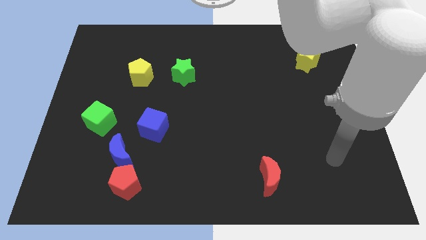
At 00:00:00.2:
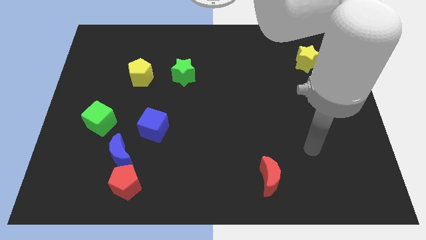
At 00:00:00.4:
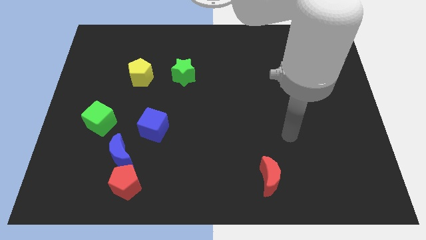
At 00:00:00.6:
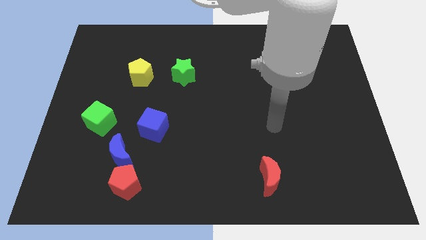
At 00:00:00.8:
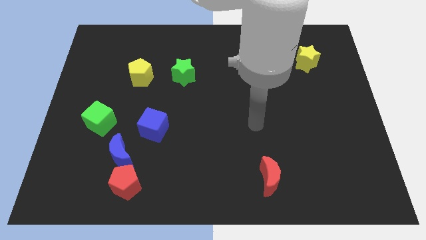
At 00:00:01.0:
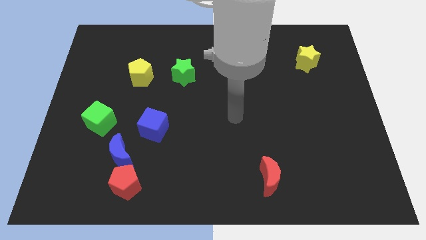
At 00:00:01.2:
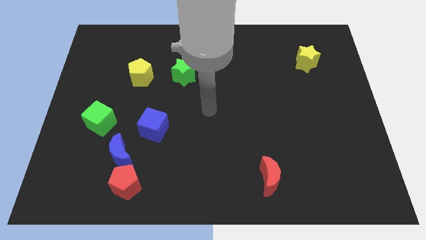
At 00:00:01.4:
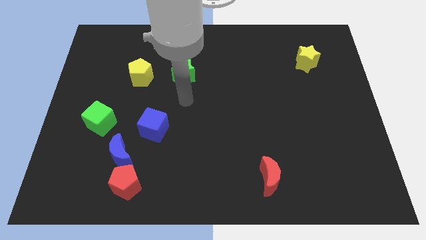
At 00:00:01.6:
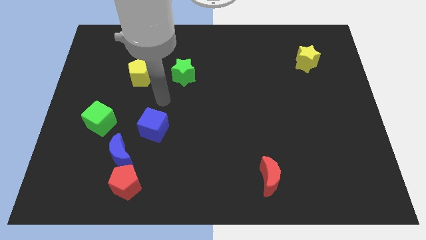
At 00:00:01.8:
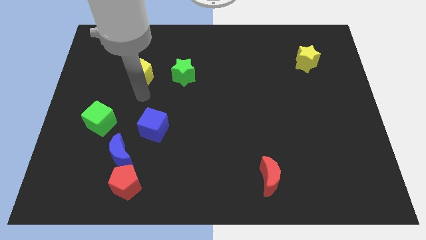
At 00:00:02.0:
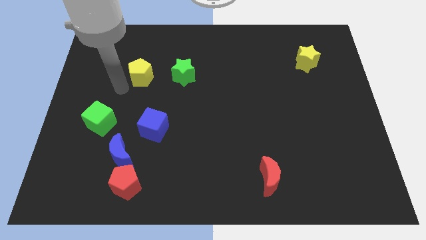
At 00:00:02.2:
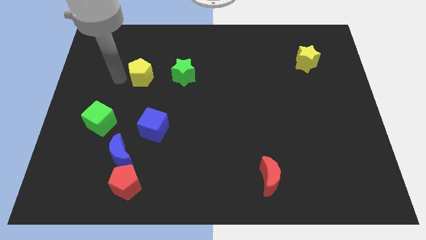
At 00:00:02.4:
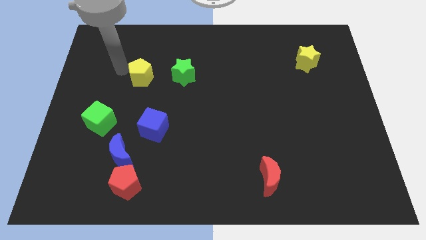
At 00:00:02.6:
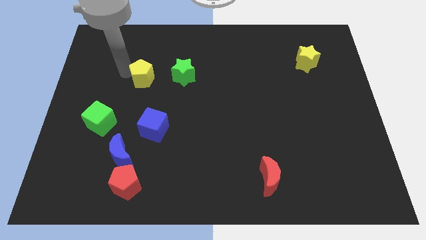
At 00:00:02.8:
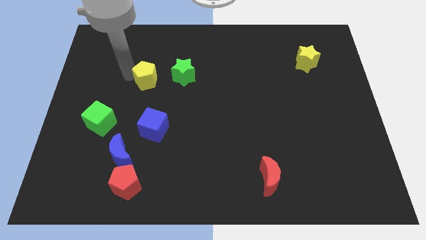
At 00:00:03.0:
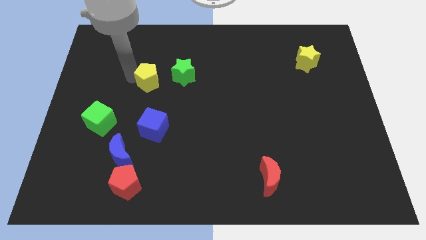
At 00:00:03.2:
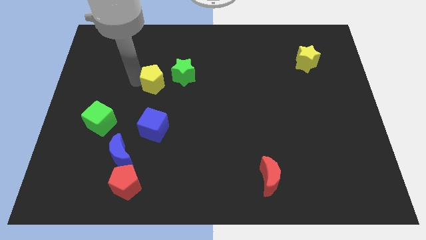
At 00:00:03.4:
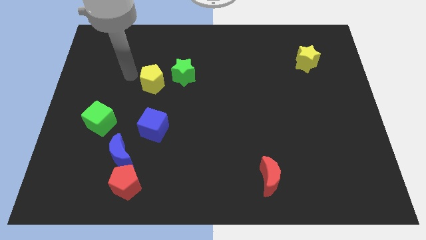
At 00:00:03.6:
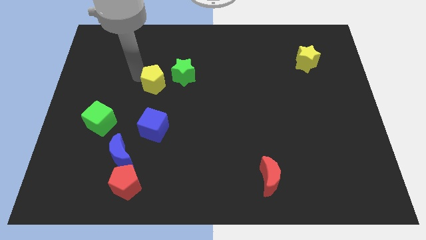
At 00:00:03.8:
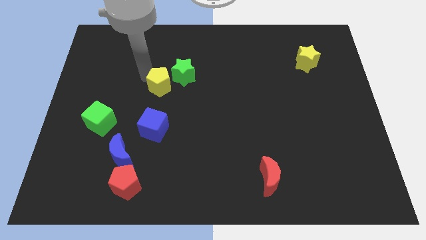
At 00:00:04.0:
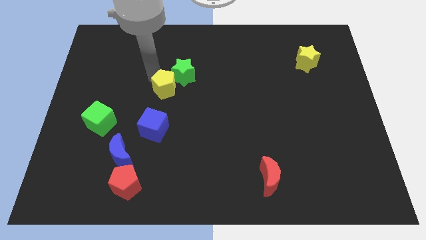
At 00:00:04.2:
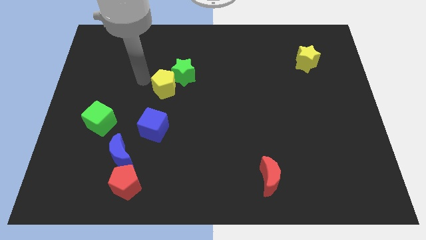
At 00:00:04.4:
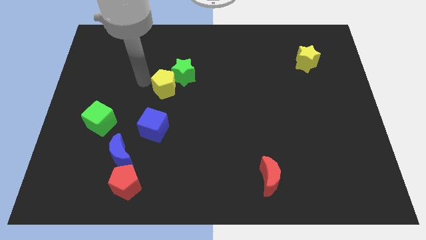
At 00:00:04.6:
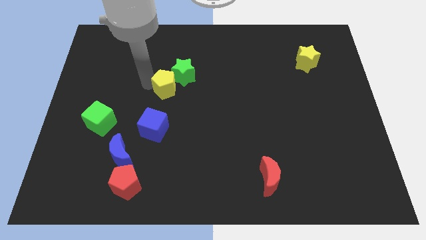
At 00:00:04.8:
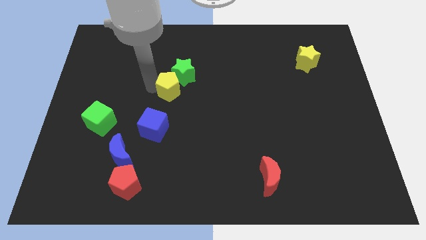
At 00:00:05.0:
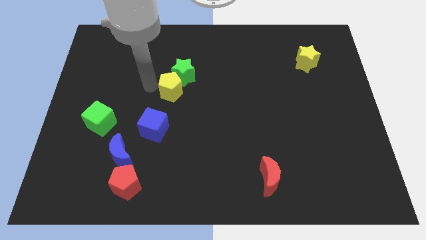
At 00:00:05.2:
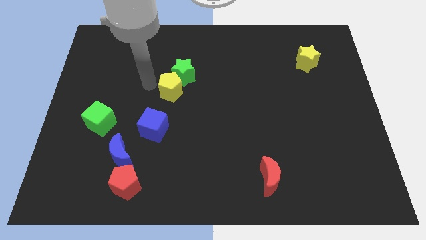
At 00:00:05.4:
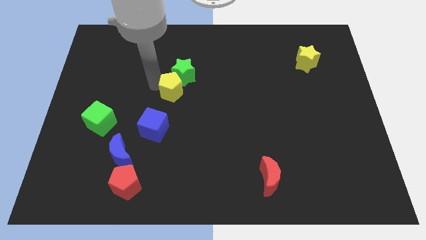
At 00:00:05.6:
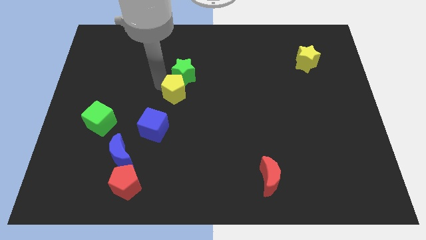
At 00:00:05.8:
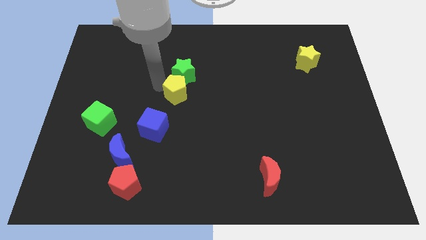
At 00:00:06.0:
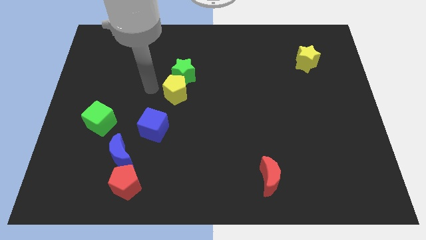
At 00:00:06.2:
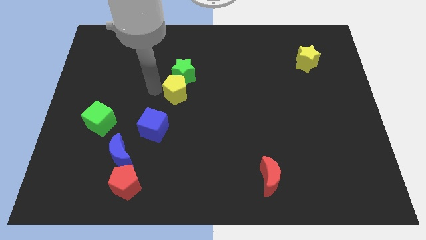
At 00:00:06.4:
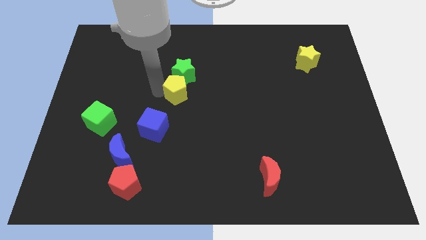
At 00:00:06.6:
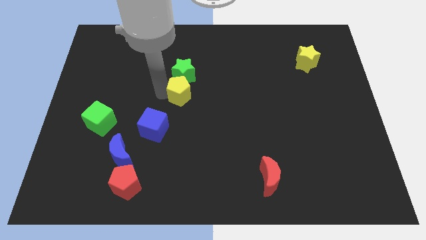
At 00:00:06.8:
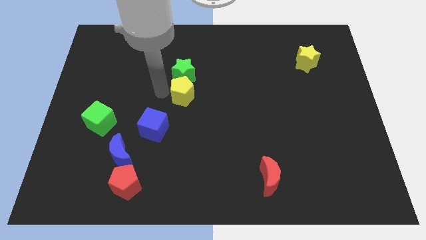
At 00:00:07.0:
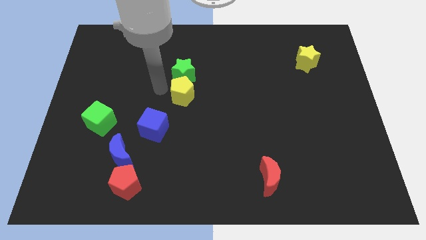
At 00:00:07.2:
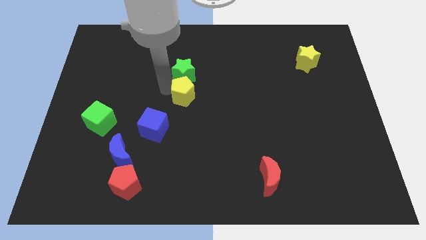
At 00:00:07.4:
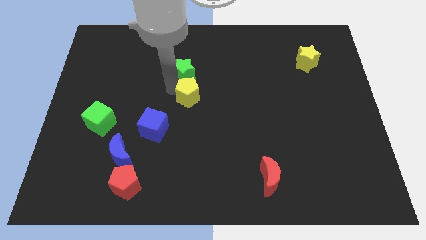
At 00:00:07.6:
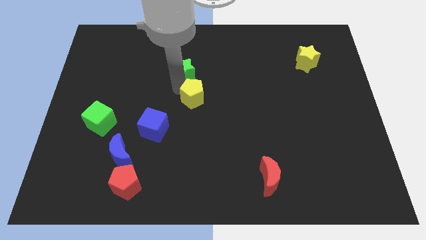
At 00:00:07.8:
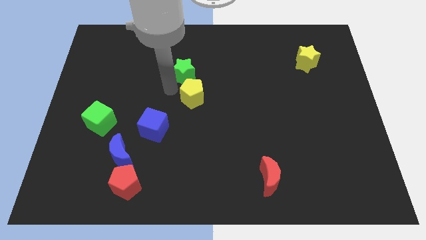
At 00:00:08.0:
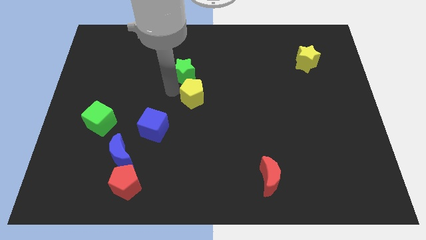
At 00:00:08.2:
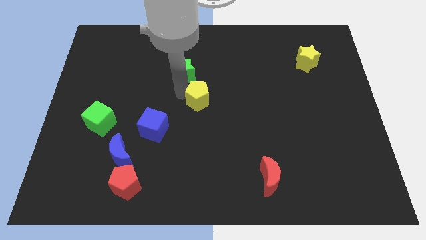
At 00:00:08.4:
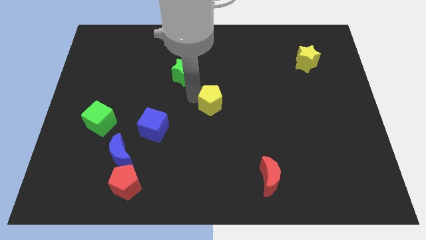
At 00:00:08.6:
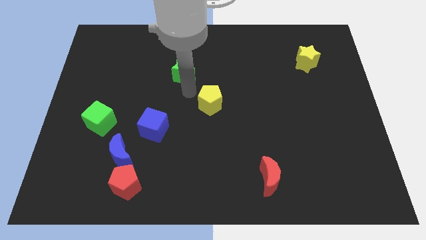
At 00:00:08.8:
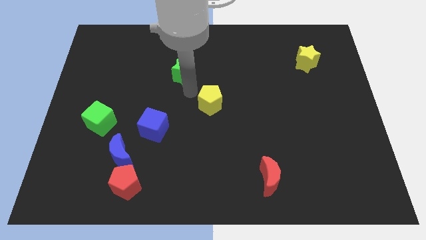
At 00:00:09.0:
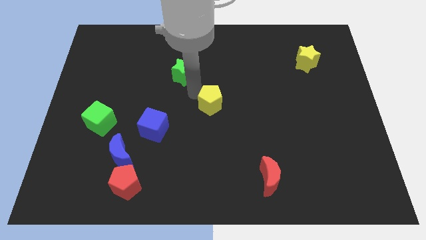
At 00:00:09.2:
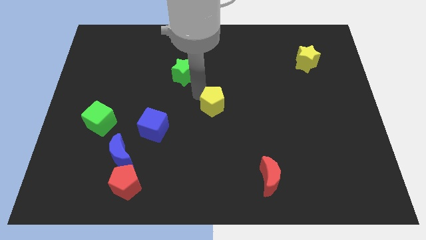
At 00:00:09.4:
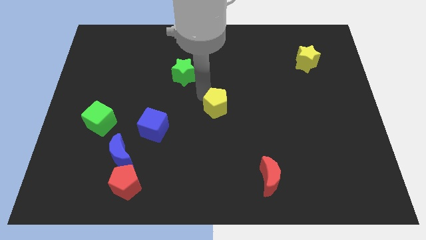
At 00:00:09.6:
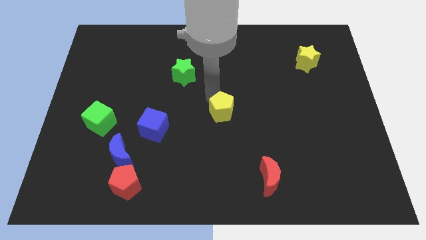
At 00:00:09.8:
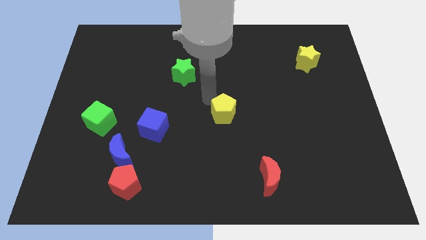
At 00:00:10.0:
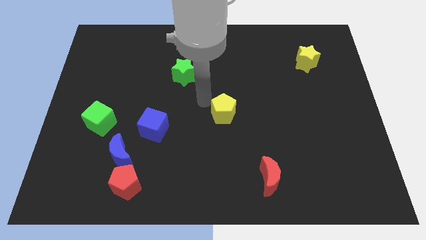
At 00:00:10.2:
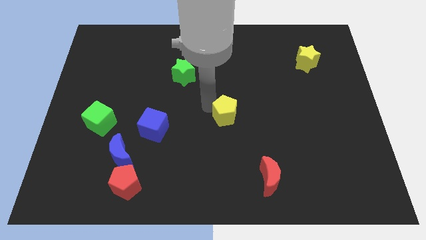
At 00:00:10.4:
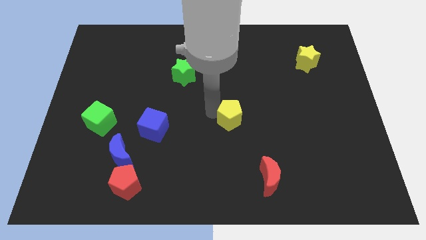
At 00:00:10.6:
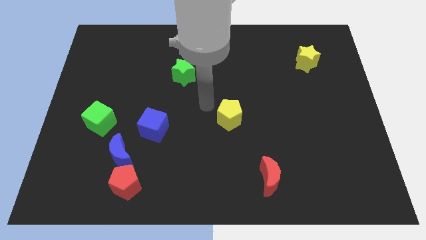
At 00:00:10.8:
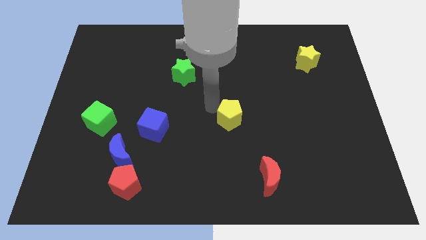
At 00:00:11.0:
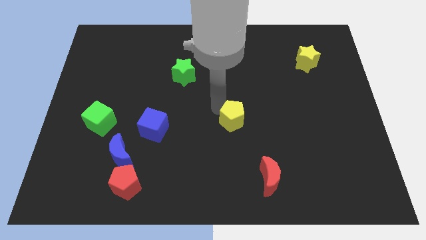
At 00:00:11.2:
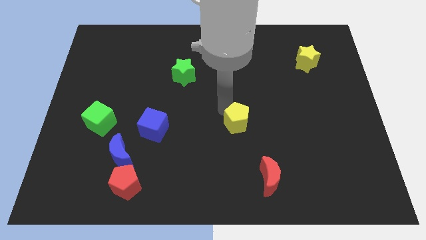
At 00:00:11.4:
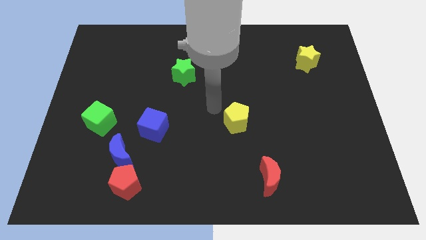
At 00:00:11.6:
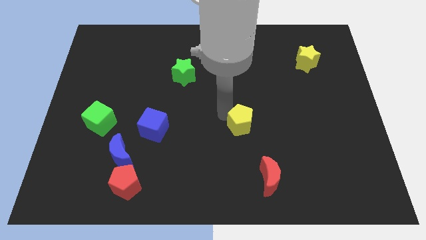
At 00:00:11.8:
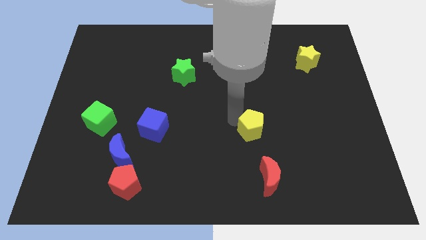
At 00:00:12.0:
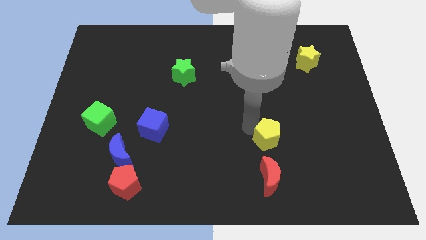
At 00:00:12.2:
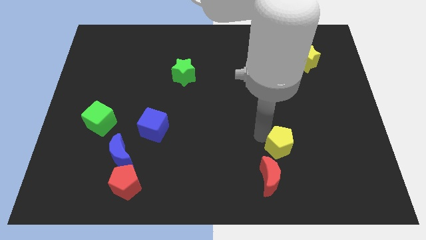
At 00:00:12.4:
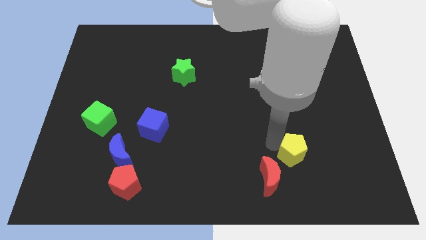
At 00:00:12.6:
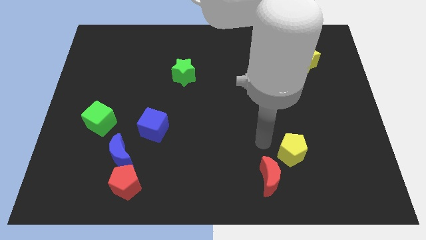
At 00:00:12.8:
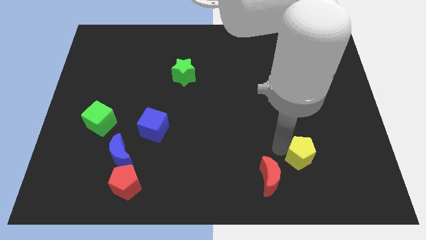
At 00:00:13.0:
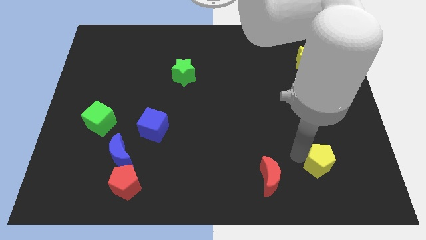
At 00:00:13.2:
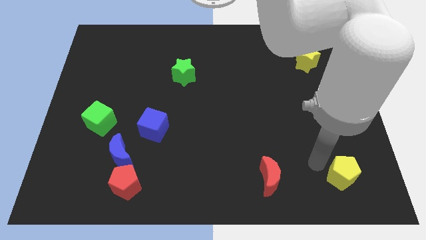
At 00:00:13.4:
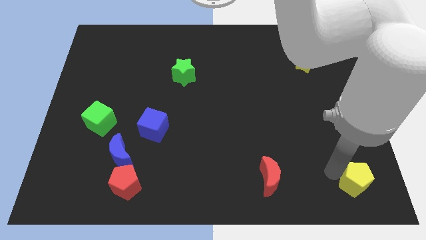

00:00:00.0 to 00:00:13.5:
move the yellow pentagon to the bottom right corner
